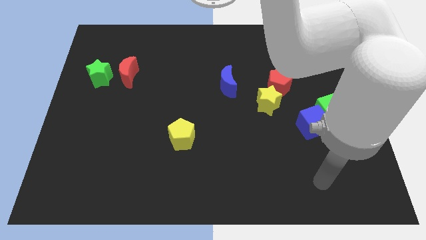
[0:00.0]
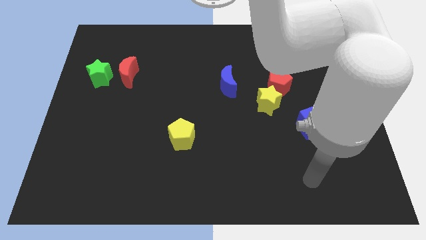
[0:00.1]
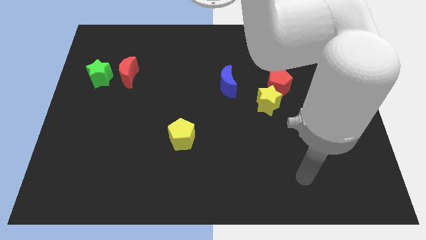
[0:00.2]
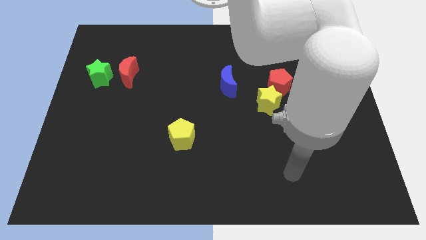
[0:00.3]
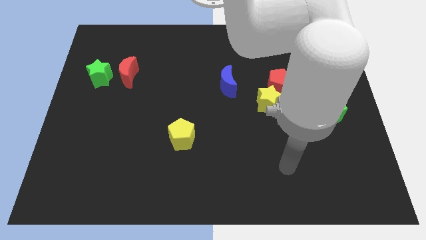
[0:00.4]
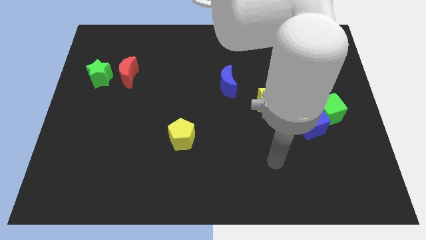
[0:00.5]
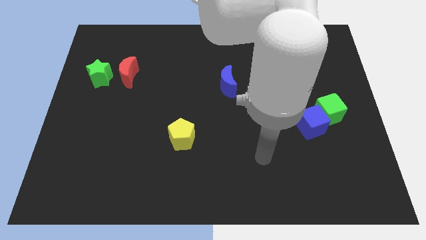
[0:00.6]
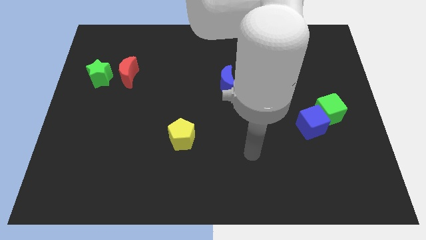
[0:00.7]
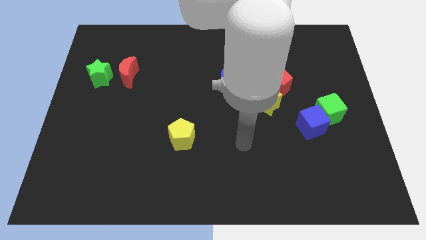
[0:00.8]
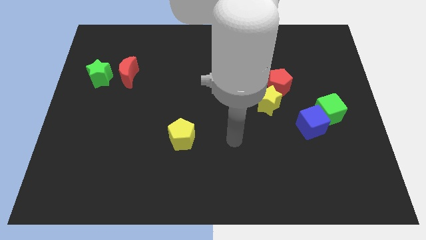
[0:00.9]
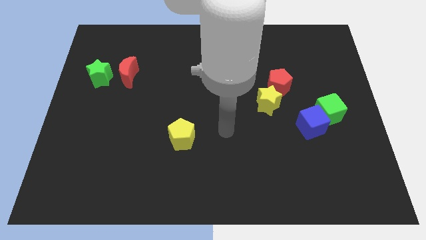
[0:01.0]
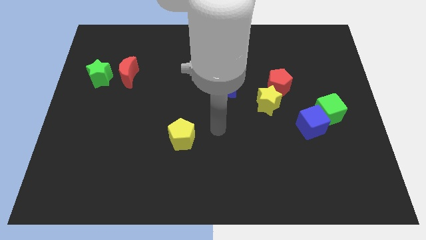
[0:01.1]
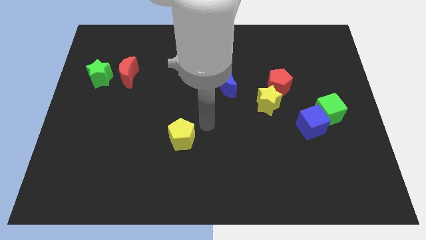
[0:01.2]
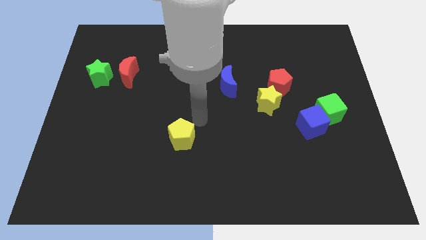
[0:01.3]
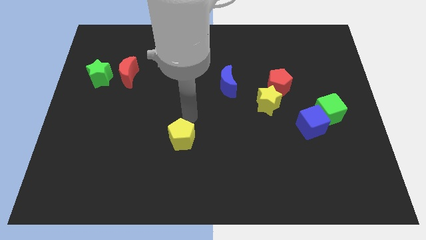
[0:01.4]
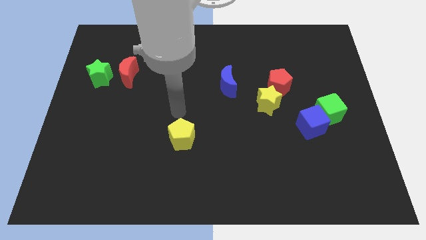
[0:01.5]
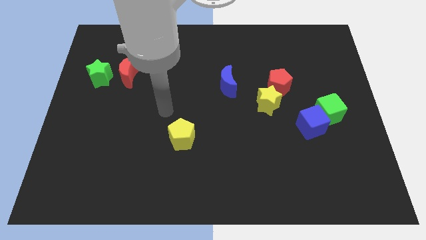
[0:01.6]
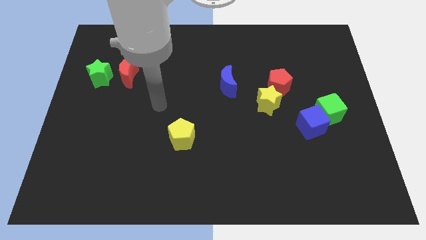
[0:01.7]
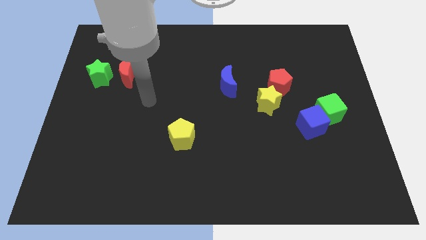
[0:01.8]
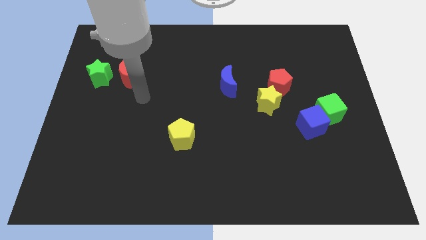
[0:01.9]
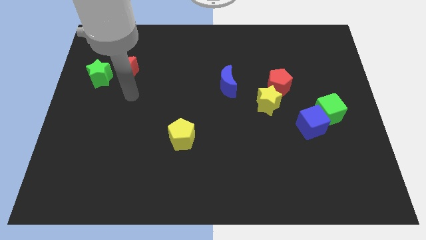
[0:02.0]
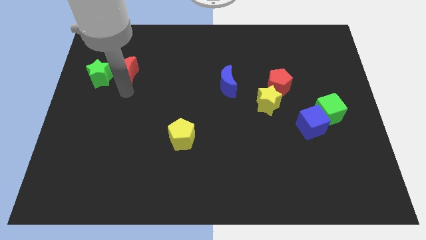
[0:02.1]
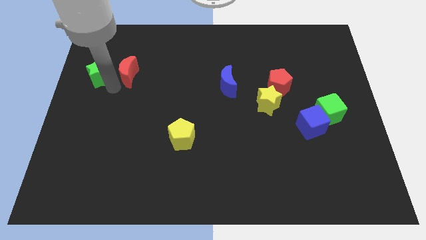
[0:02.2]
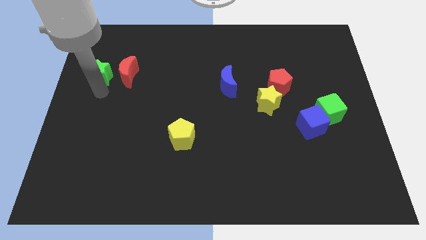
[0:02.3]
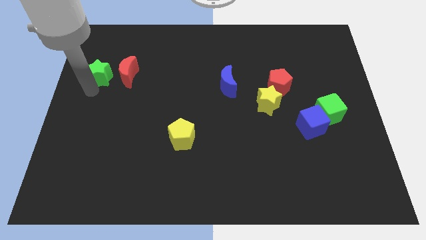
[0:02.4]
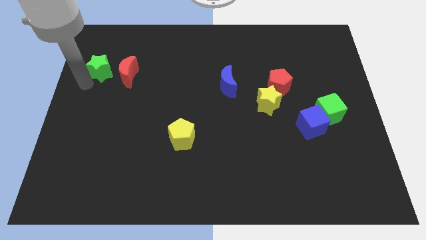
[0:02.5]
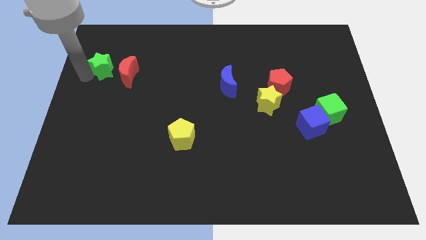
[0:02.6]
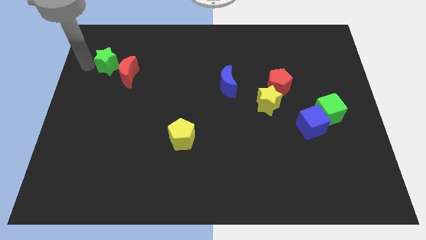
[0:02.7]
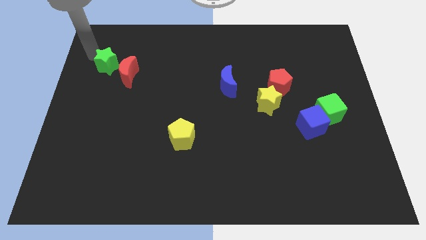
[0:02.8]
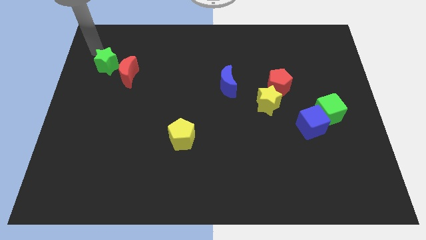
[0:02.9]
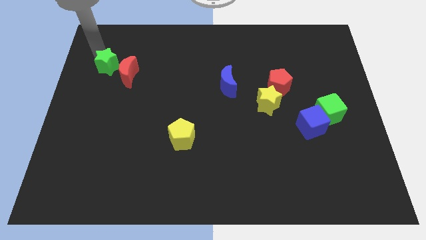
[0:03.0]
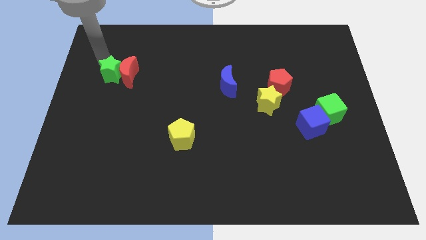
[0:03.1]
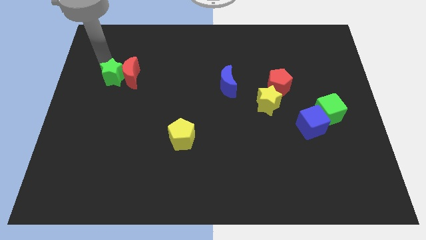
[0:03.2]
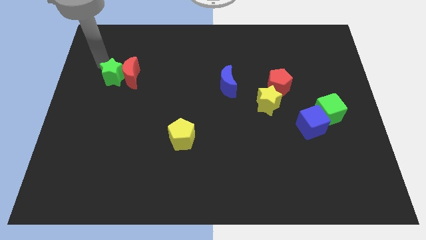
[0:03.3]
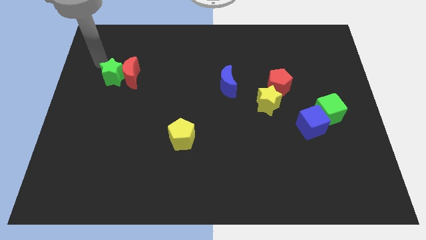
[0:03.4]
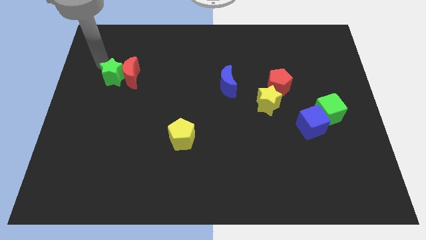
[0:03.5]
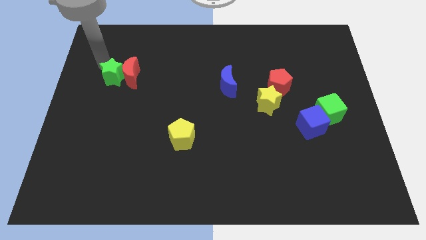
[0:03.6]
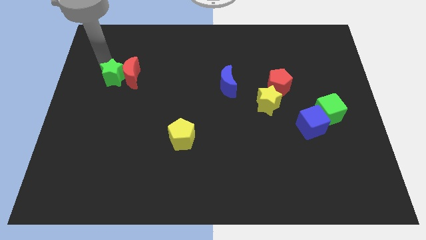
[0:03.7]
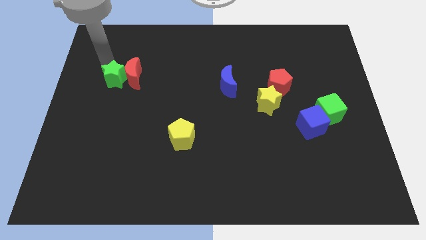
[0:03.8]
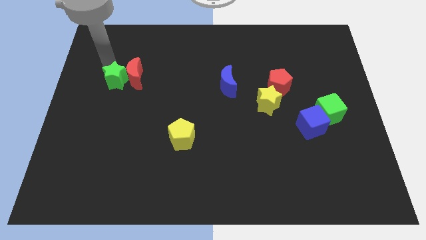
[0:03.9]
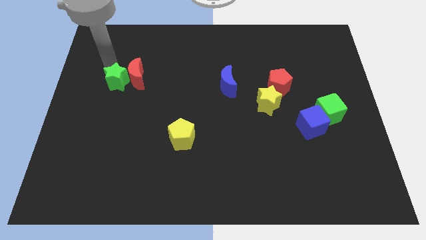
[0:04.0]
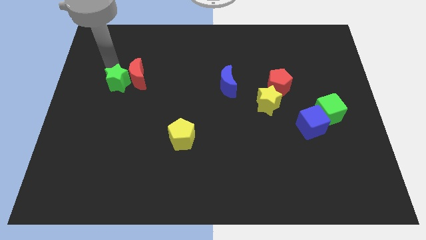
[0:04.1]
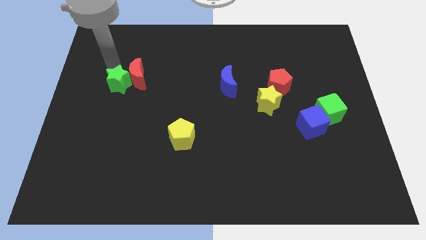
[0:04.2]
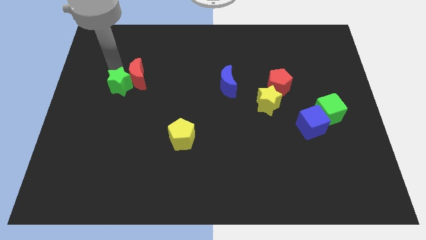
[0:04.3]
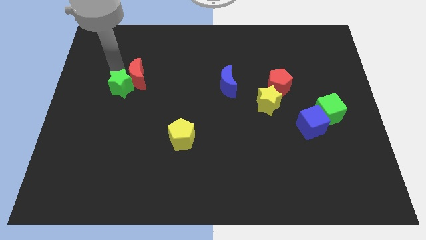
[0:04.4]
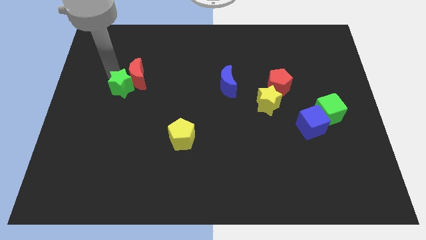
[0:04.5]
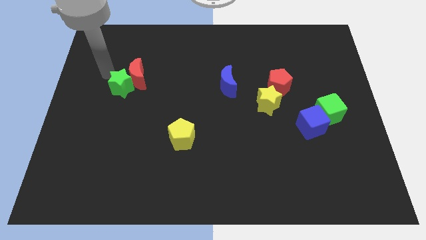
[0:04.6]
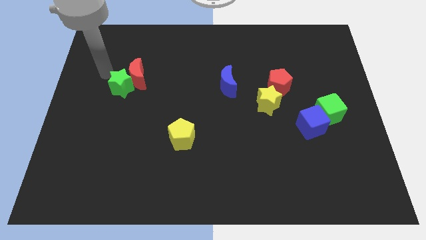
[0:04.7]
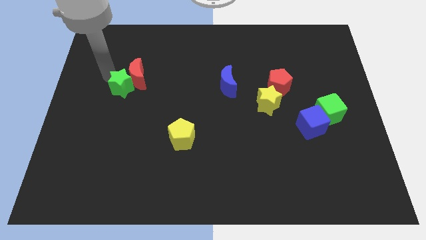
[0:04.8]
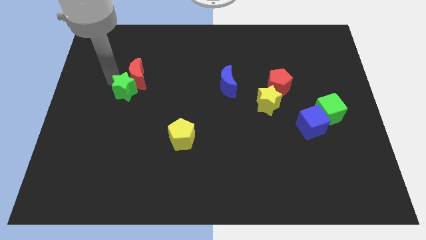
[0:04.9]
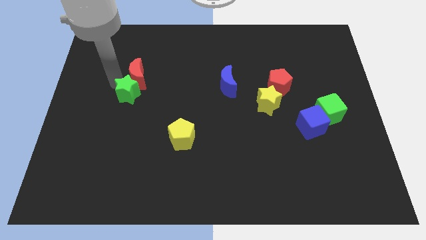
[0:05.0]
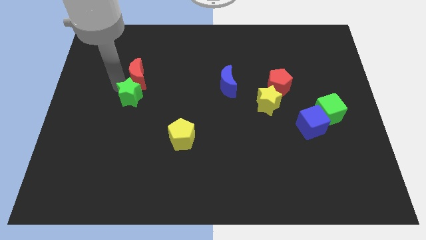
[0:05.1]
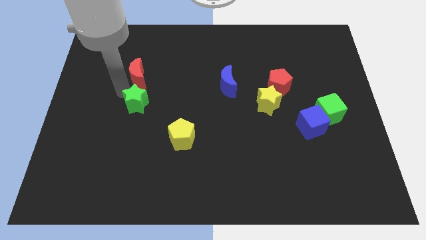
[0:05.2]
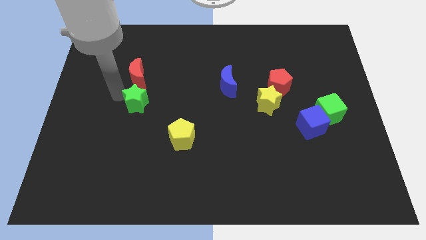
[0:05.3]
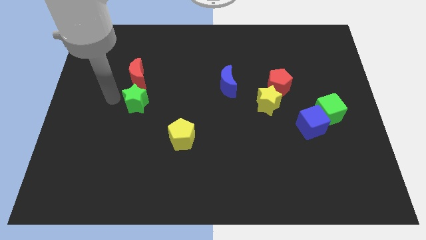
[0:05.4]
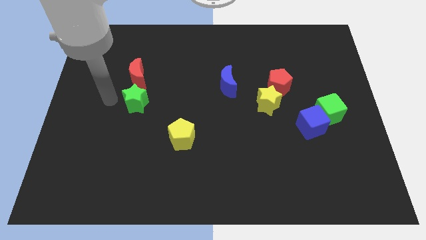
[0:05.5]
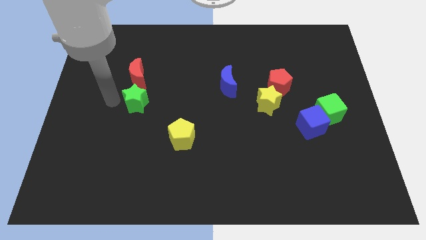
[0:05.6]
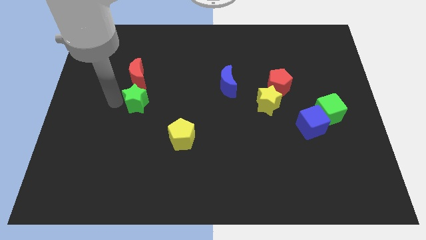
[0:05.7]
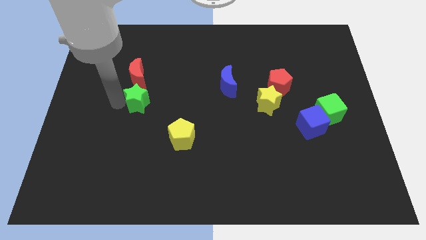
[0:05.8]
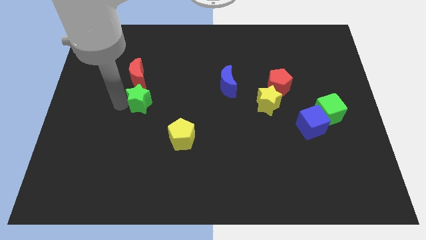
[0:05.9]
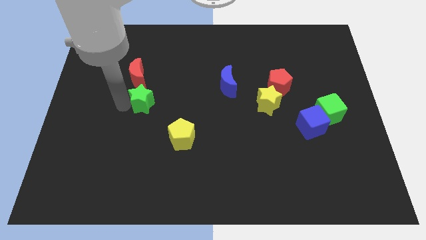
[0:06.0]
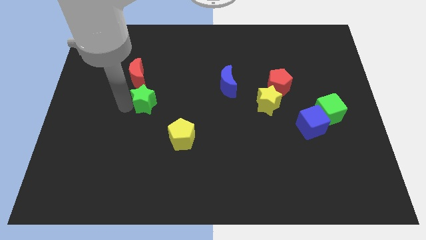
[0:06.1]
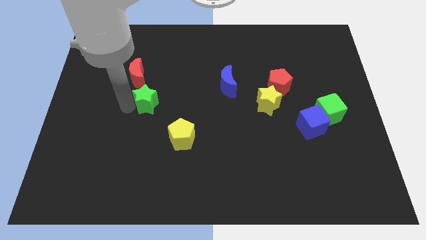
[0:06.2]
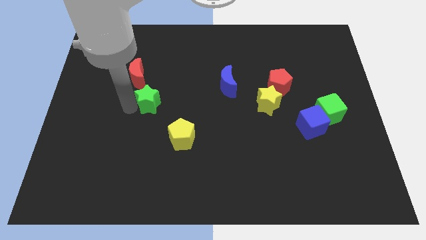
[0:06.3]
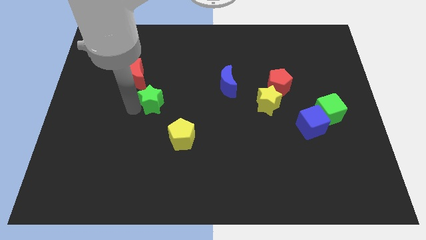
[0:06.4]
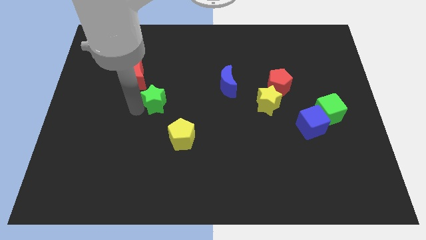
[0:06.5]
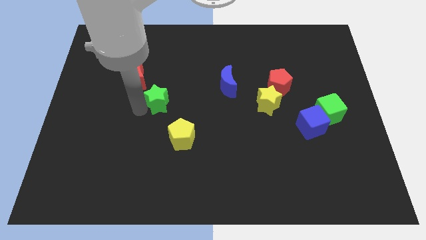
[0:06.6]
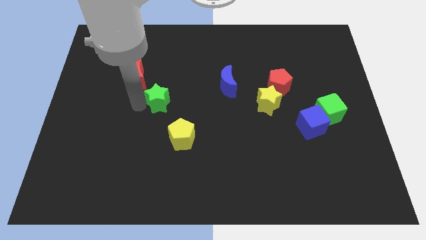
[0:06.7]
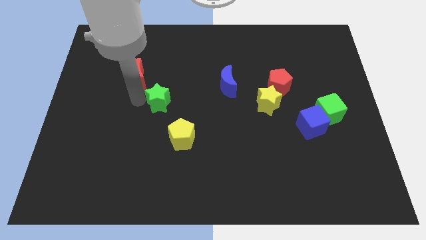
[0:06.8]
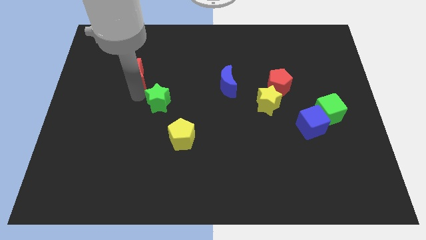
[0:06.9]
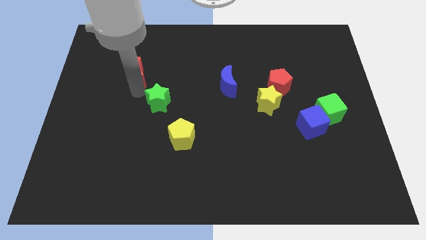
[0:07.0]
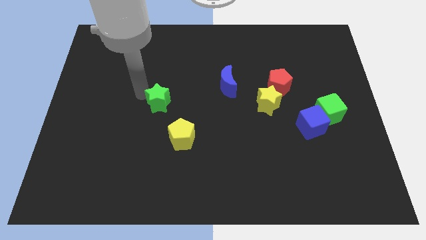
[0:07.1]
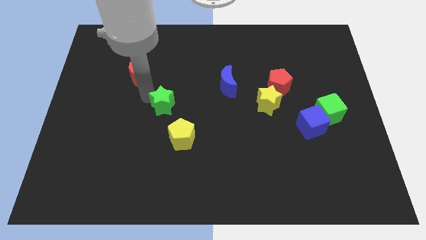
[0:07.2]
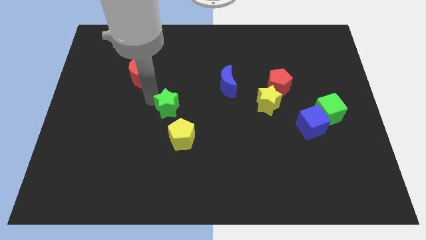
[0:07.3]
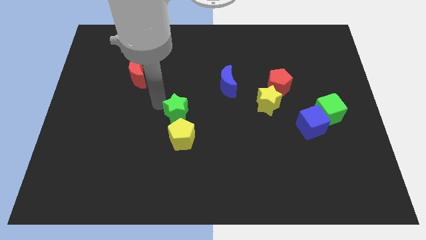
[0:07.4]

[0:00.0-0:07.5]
slide the green star diagonally downwards and right

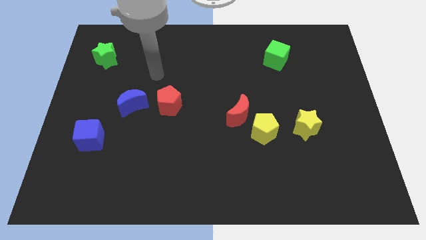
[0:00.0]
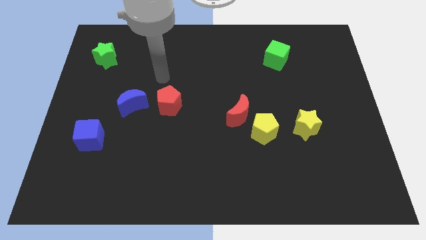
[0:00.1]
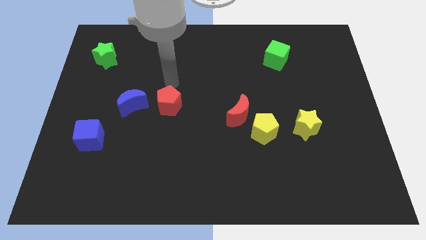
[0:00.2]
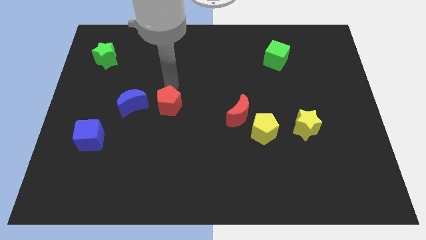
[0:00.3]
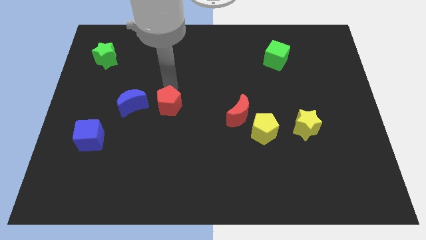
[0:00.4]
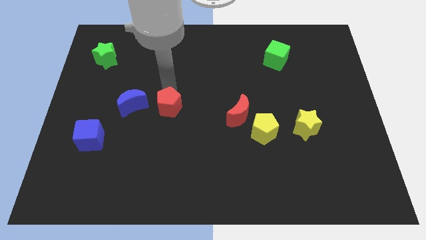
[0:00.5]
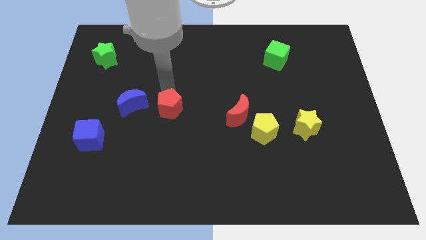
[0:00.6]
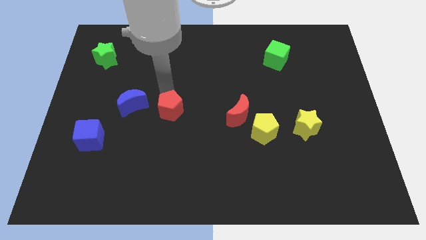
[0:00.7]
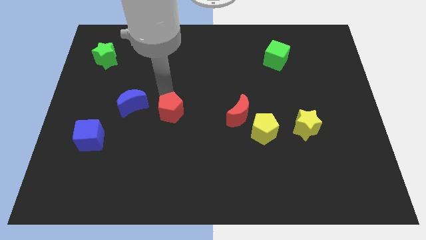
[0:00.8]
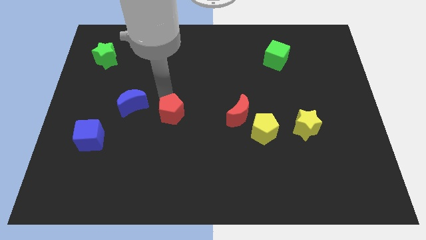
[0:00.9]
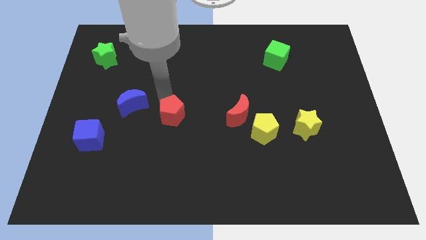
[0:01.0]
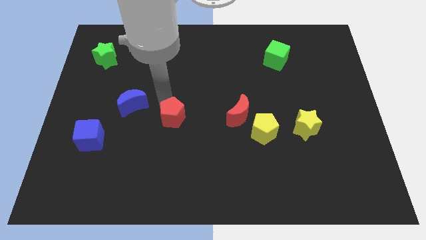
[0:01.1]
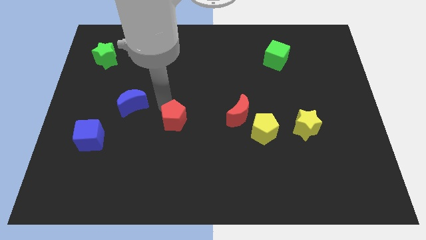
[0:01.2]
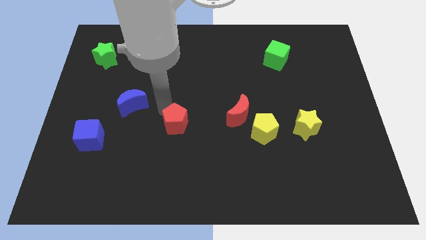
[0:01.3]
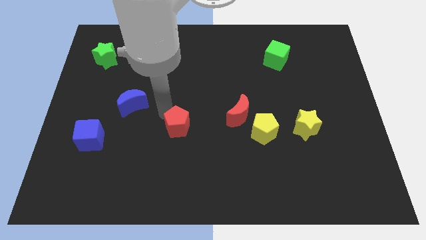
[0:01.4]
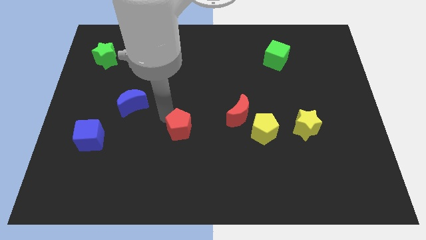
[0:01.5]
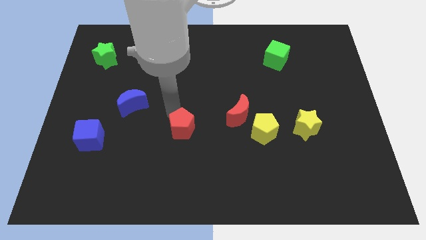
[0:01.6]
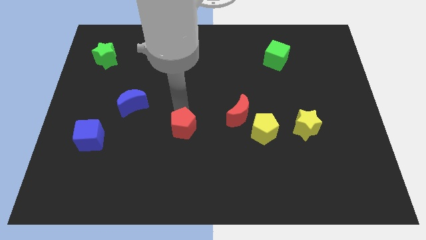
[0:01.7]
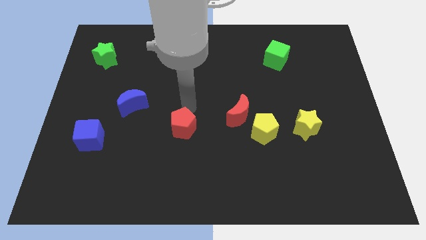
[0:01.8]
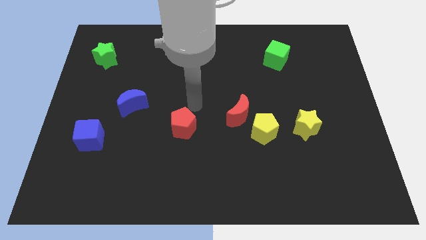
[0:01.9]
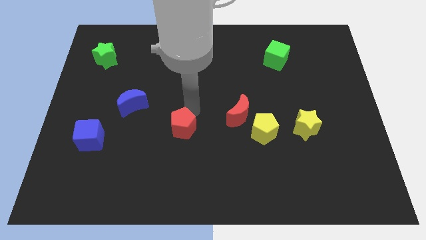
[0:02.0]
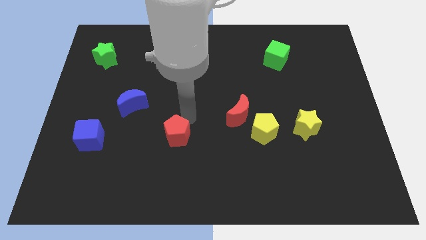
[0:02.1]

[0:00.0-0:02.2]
move the red pentagon down somewhat
